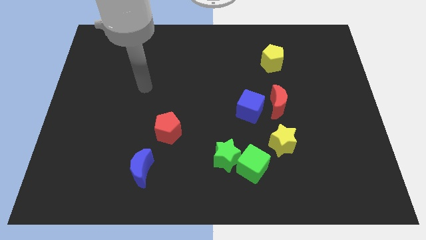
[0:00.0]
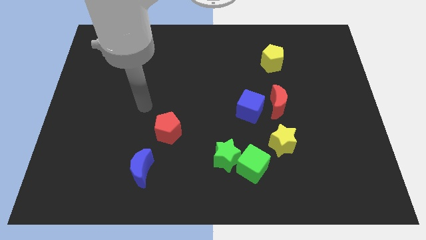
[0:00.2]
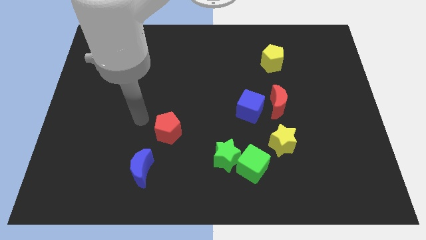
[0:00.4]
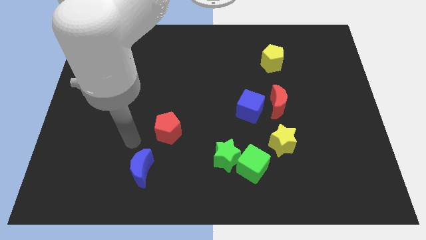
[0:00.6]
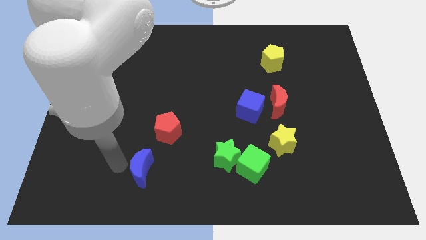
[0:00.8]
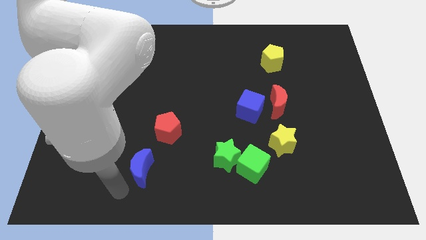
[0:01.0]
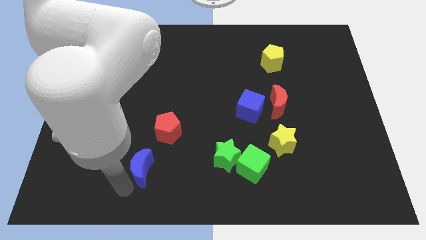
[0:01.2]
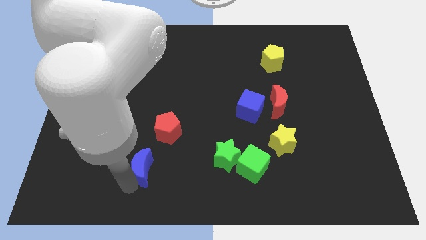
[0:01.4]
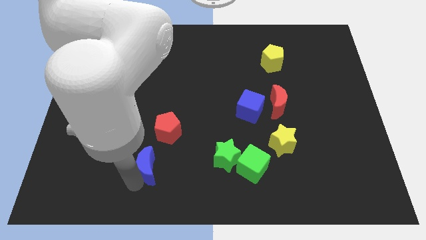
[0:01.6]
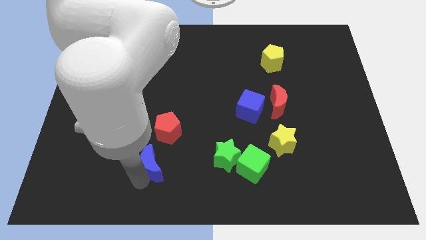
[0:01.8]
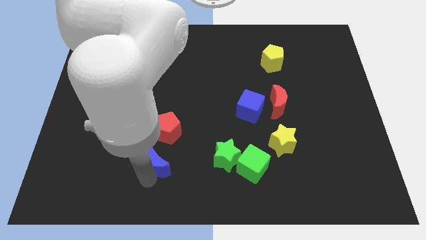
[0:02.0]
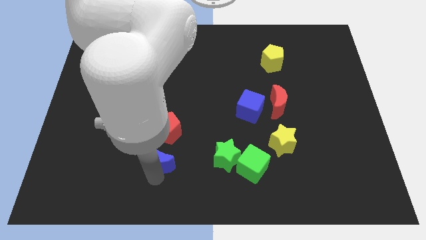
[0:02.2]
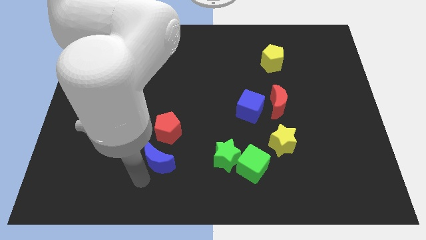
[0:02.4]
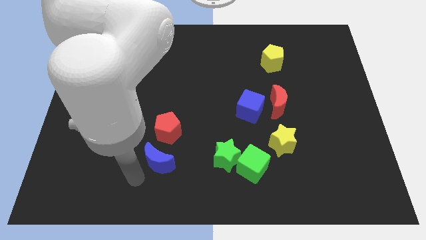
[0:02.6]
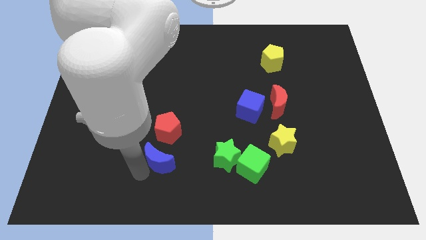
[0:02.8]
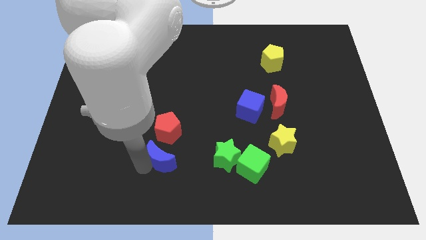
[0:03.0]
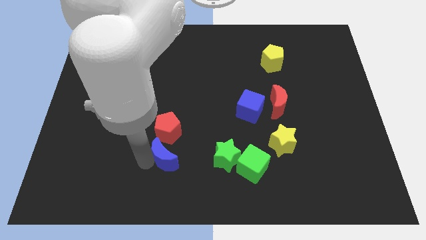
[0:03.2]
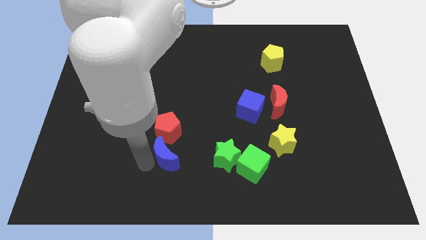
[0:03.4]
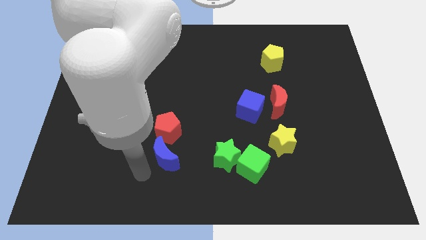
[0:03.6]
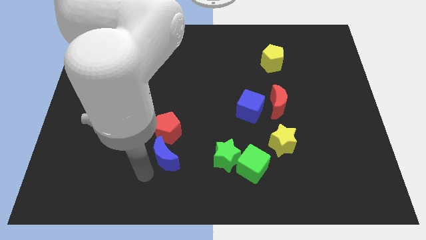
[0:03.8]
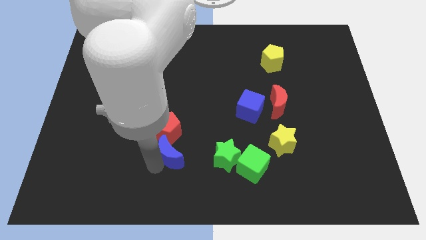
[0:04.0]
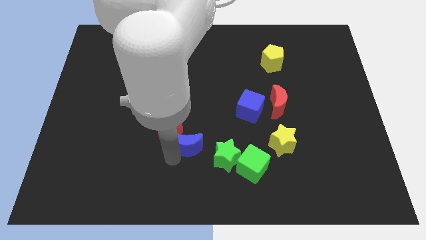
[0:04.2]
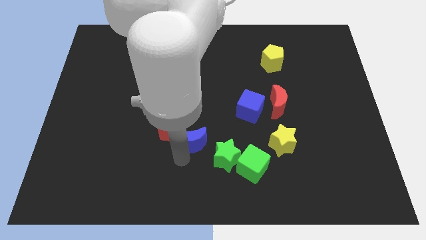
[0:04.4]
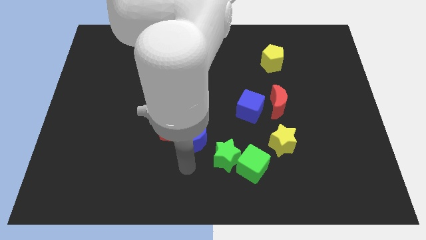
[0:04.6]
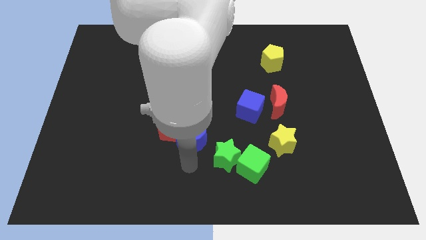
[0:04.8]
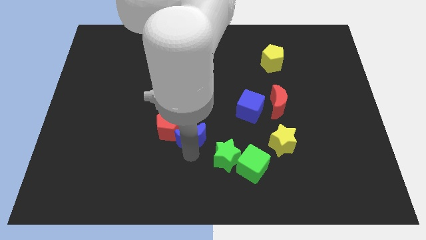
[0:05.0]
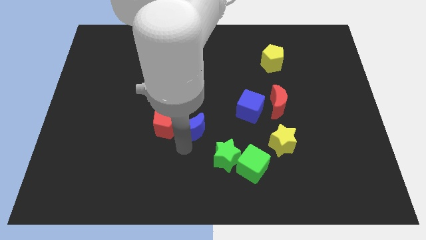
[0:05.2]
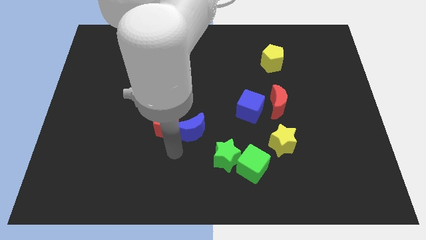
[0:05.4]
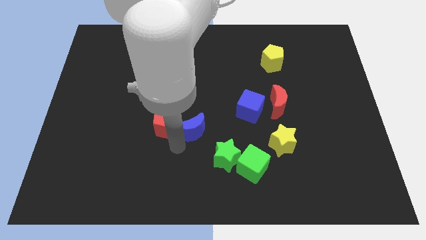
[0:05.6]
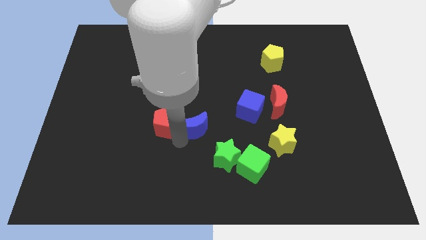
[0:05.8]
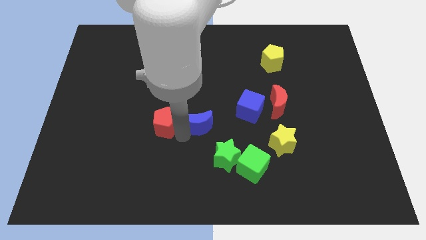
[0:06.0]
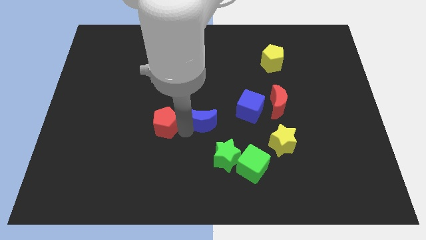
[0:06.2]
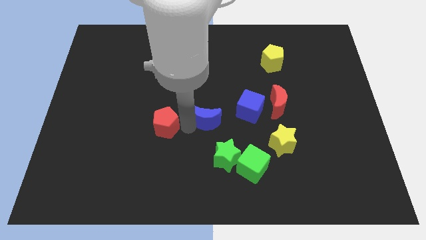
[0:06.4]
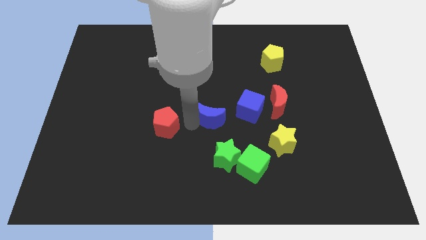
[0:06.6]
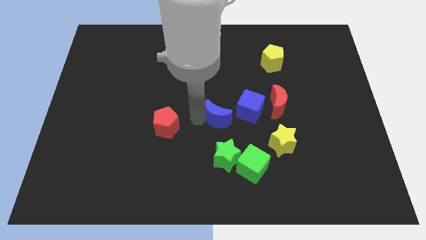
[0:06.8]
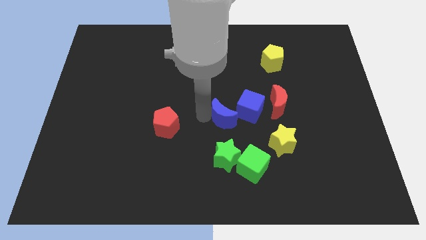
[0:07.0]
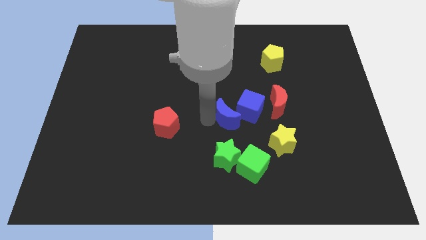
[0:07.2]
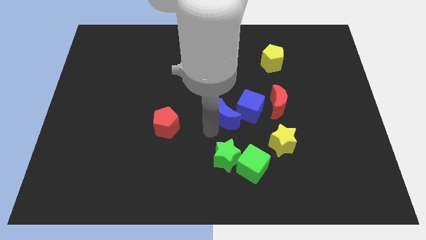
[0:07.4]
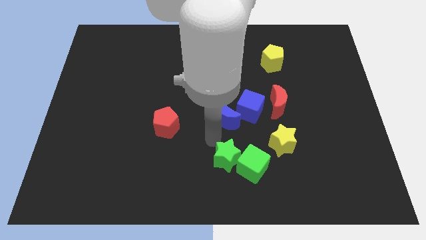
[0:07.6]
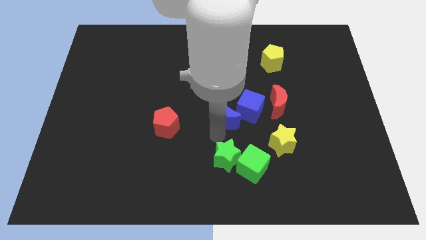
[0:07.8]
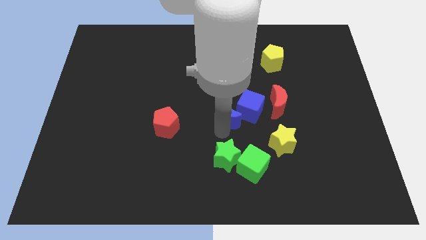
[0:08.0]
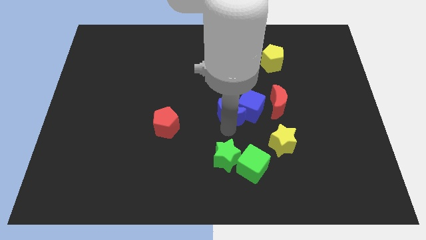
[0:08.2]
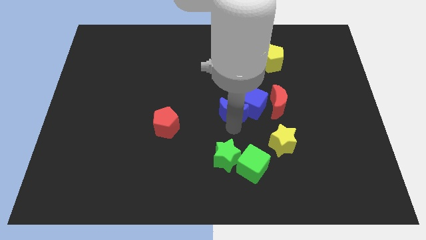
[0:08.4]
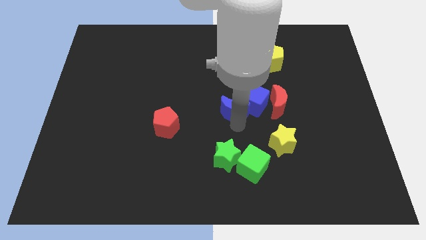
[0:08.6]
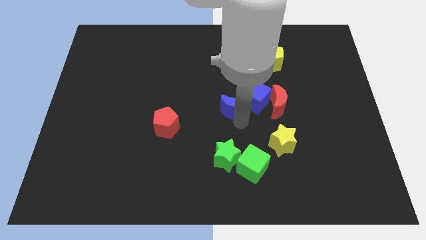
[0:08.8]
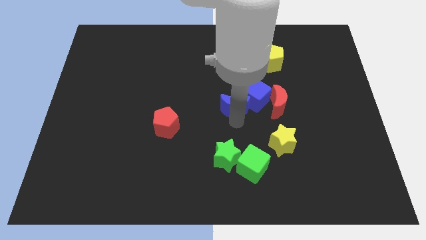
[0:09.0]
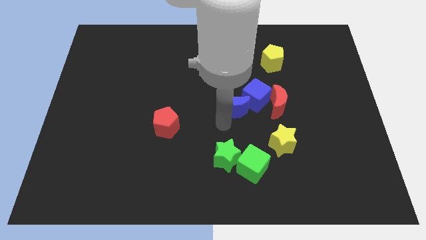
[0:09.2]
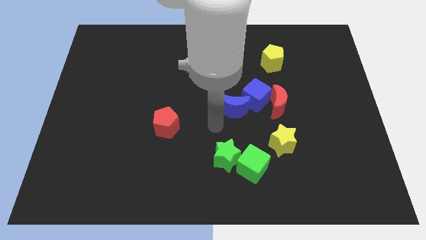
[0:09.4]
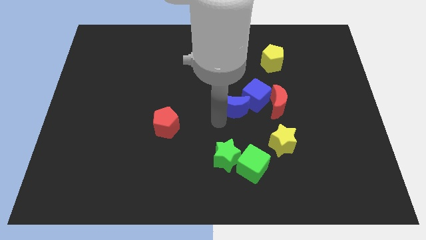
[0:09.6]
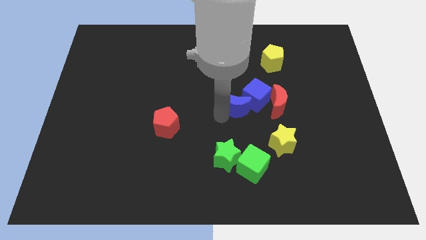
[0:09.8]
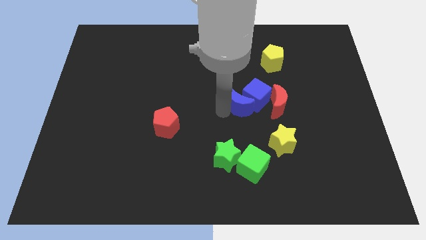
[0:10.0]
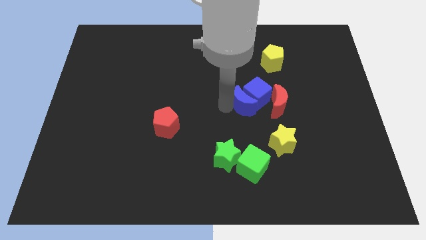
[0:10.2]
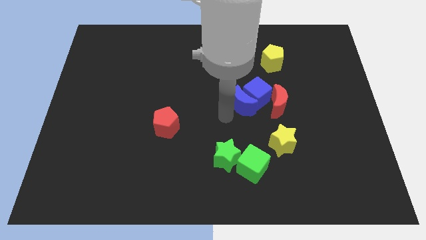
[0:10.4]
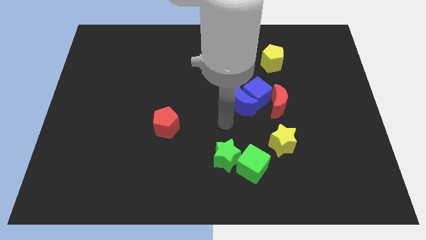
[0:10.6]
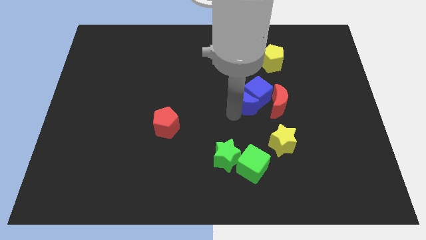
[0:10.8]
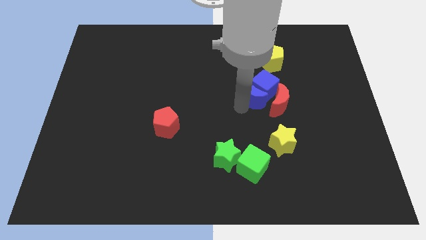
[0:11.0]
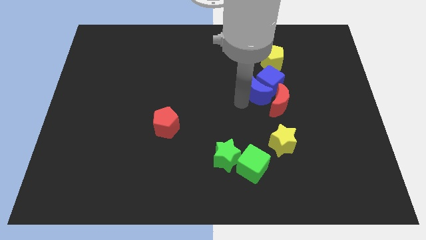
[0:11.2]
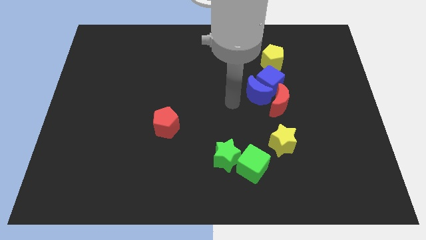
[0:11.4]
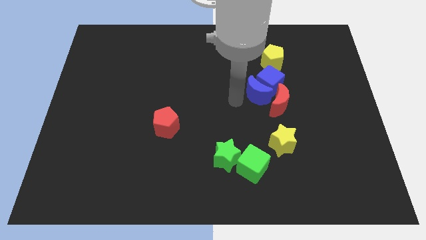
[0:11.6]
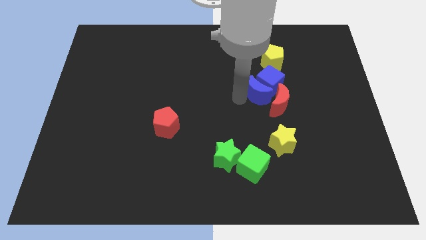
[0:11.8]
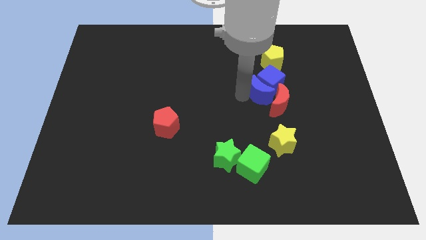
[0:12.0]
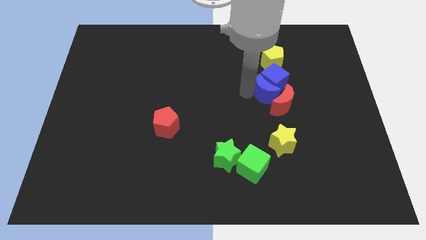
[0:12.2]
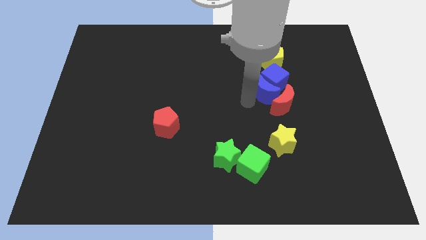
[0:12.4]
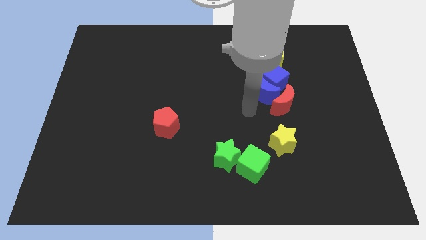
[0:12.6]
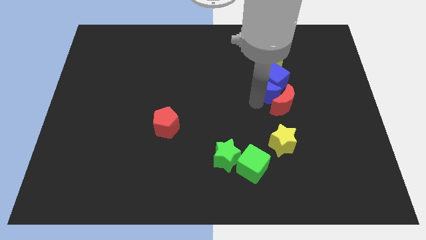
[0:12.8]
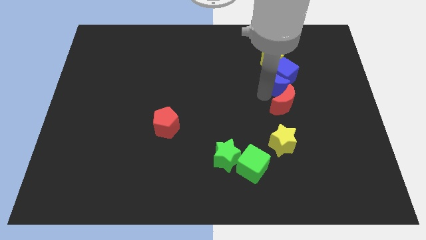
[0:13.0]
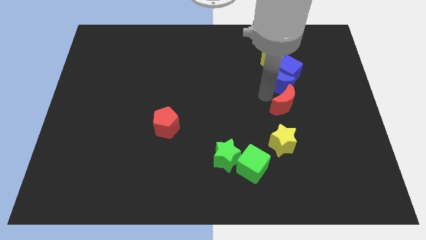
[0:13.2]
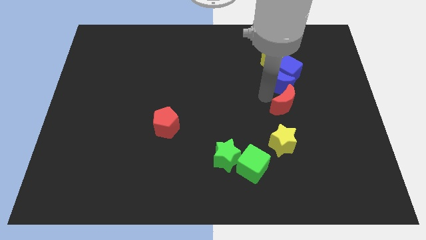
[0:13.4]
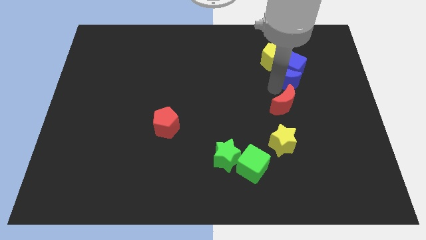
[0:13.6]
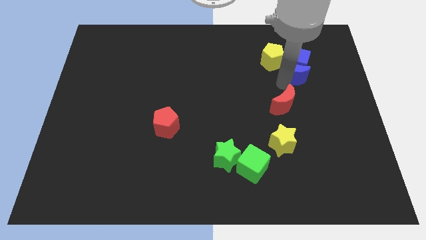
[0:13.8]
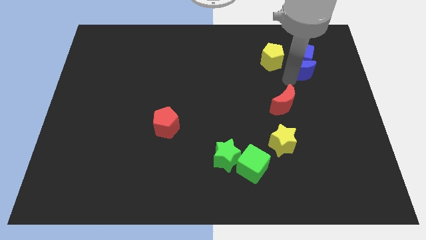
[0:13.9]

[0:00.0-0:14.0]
put the blue moon just right of the yellow pentagon
